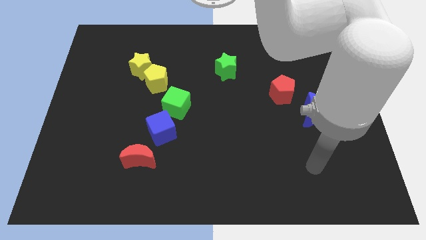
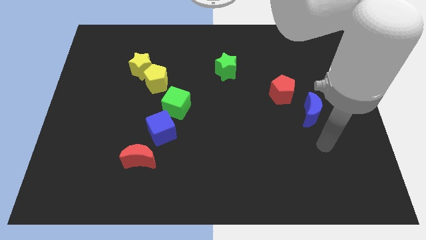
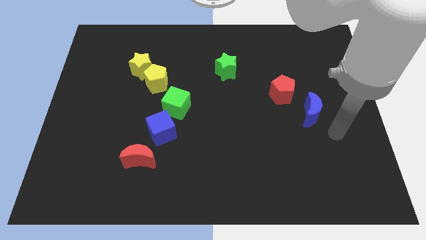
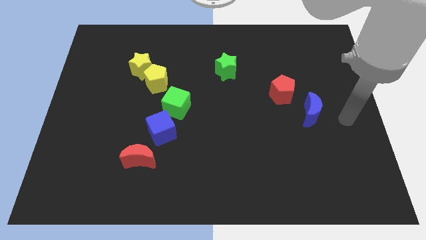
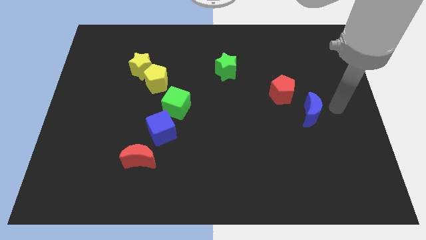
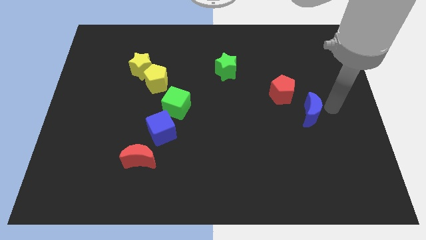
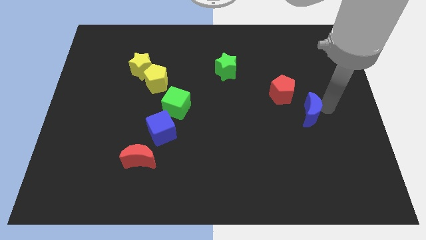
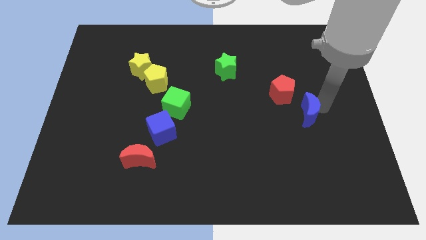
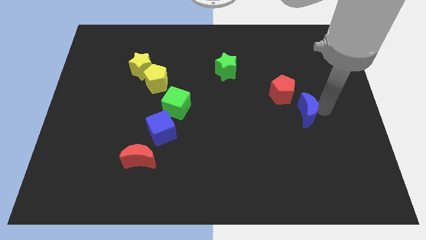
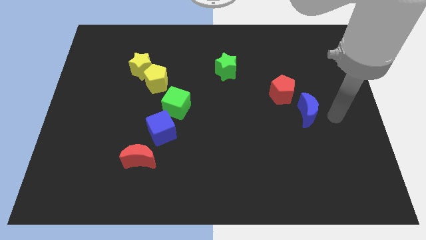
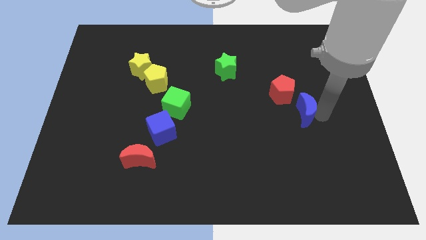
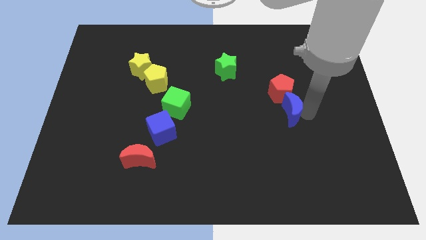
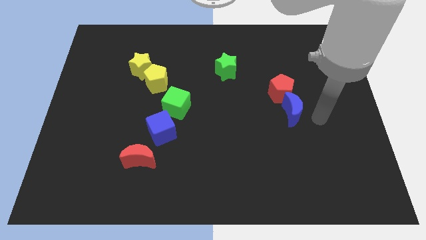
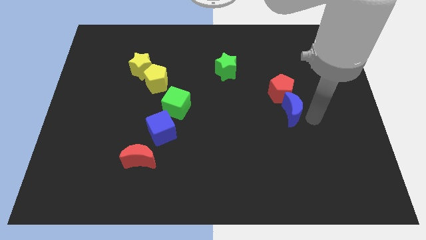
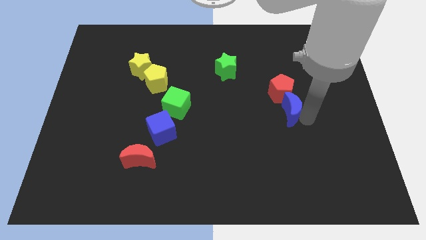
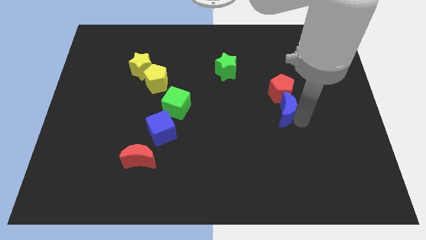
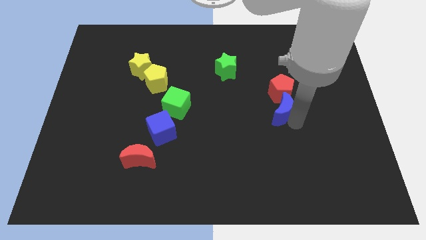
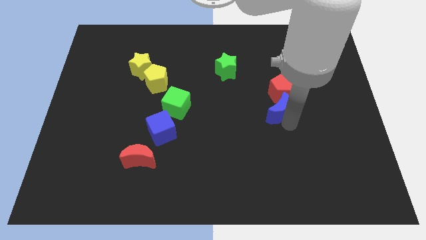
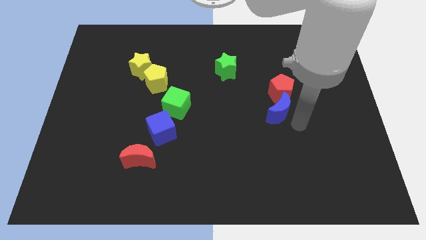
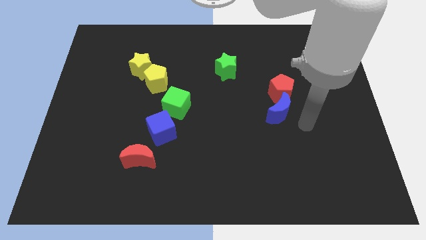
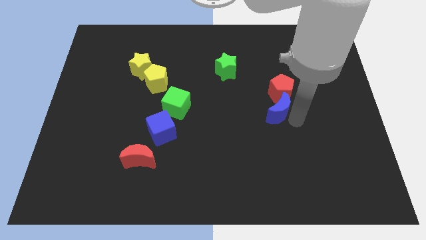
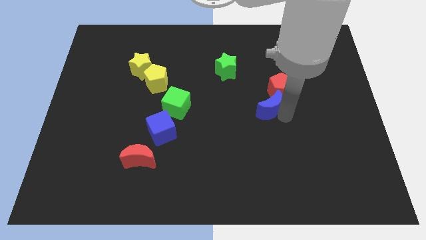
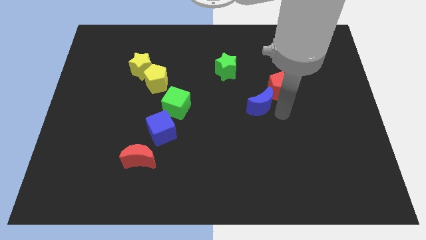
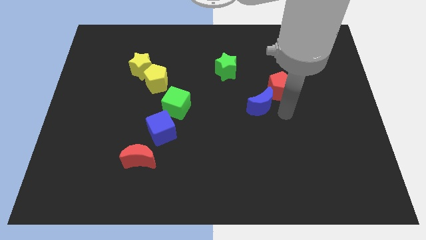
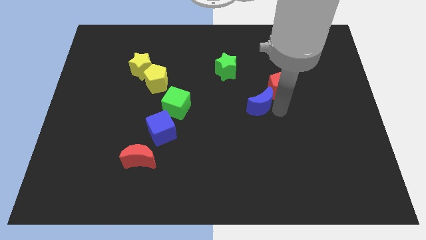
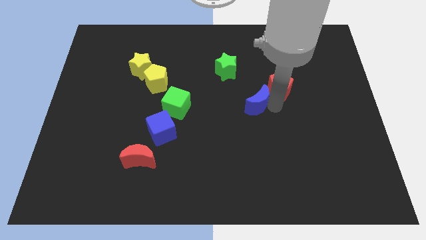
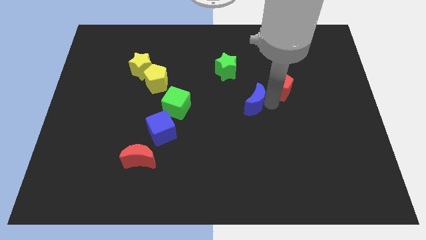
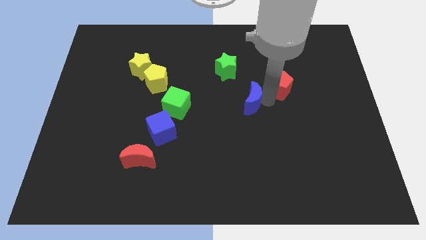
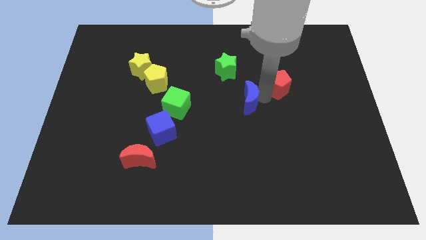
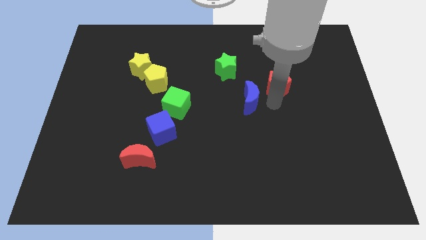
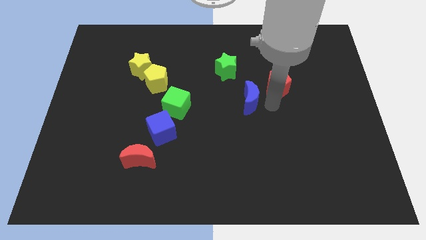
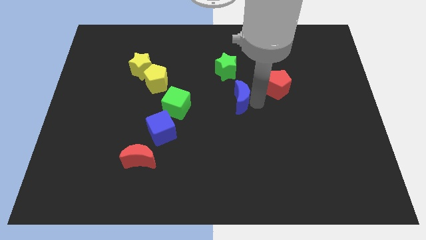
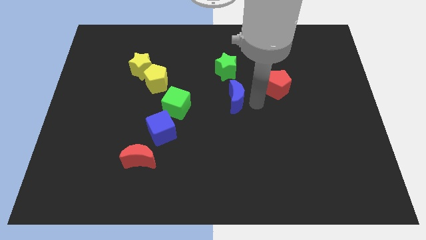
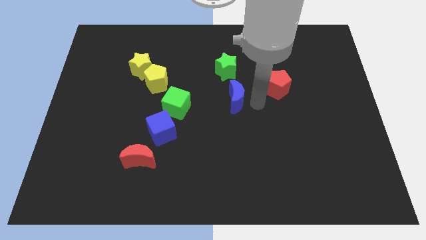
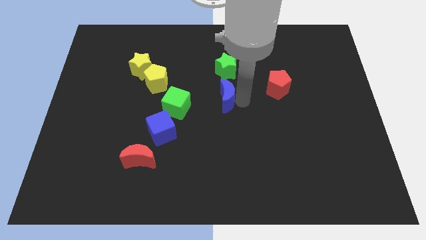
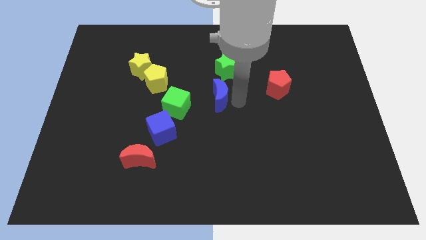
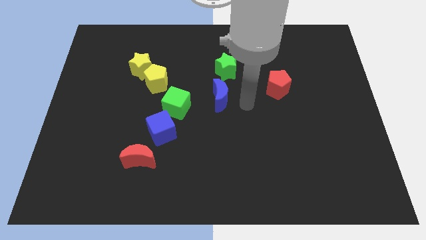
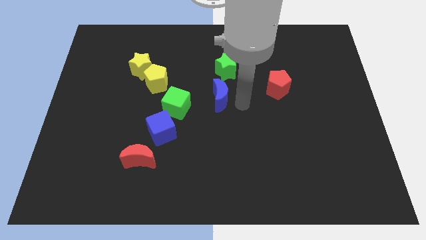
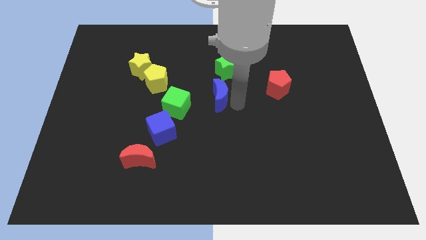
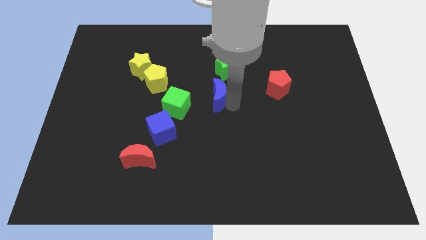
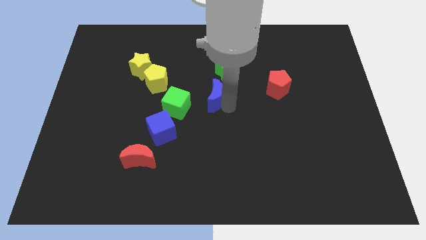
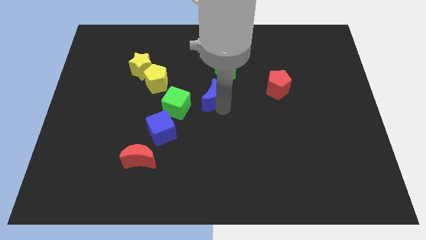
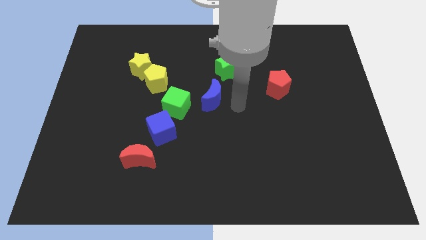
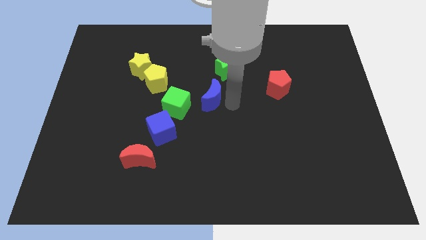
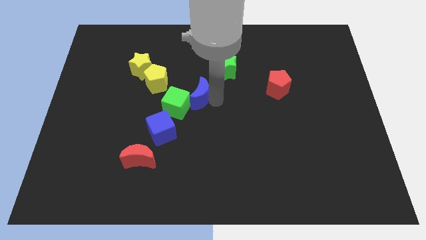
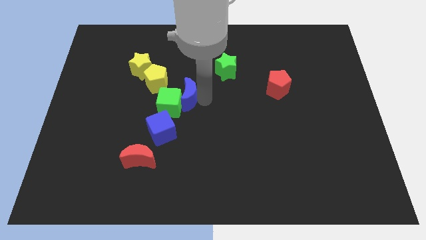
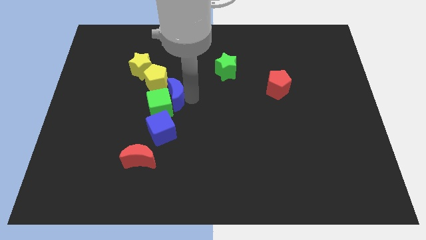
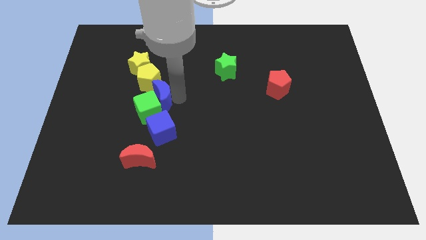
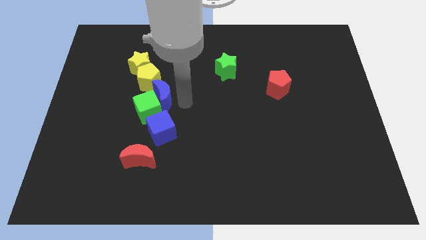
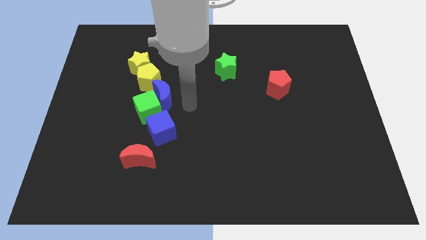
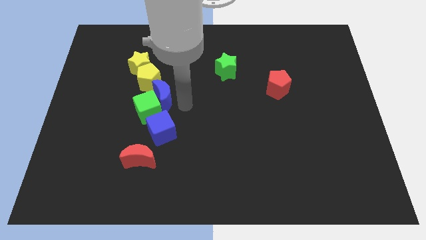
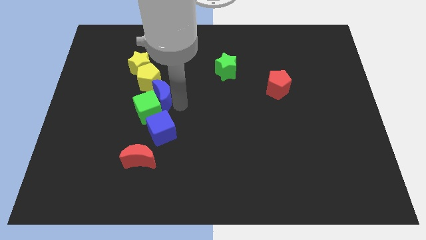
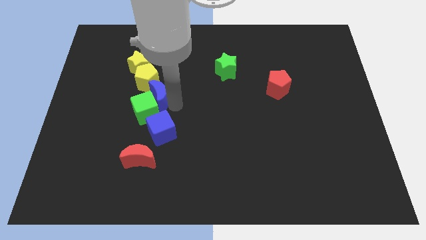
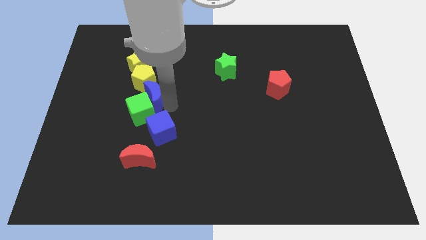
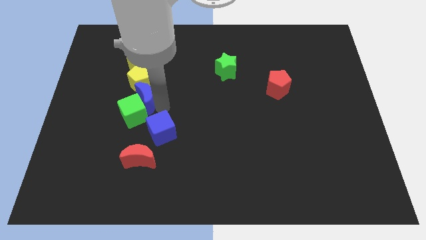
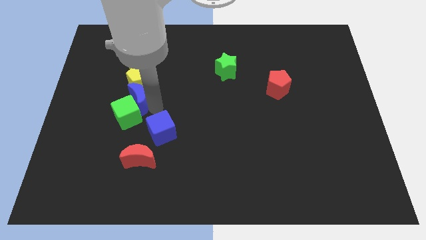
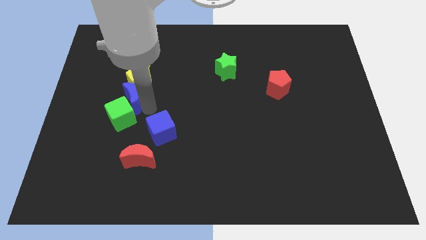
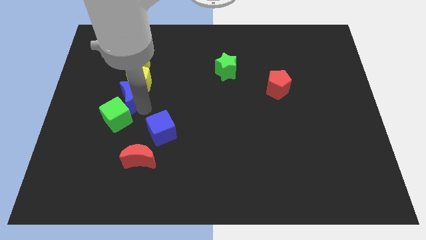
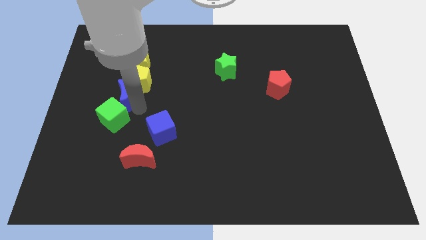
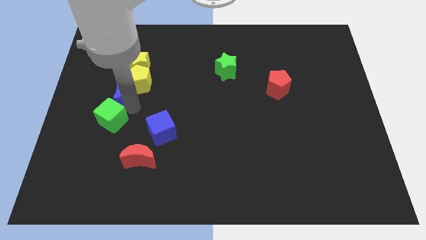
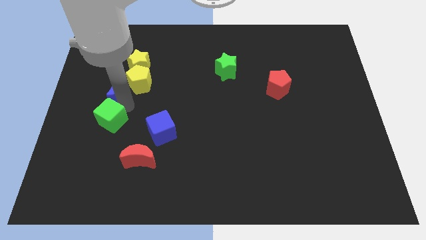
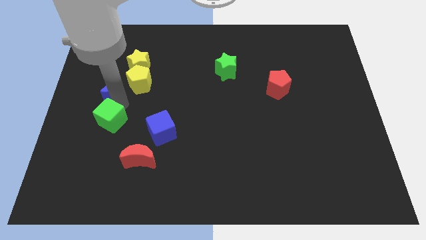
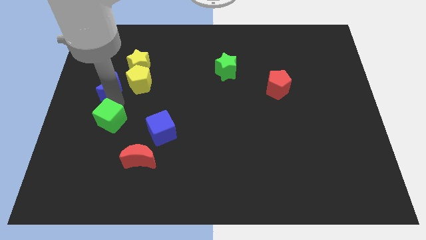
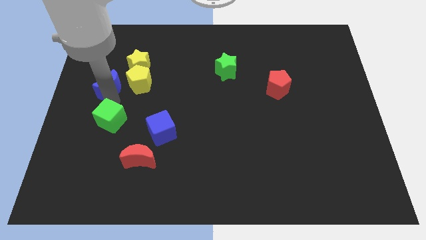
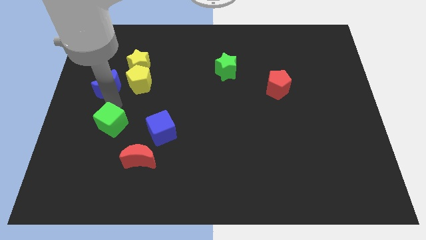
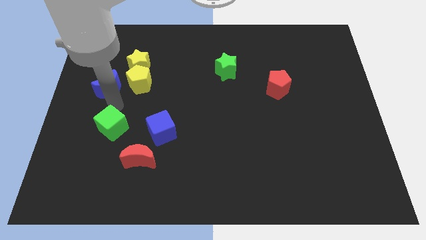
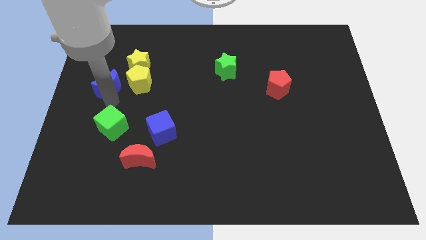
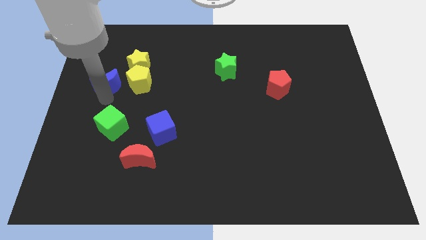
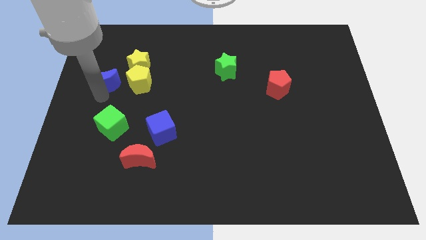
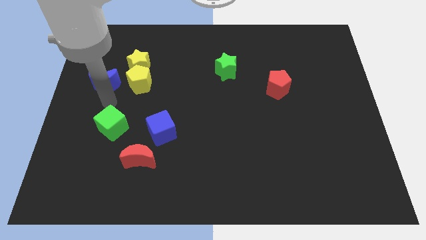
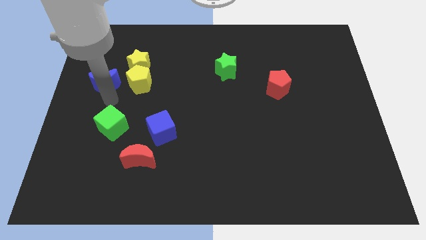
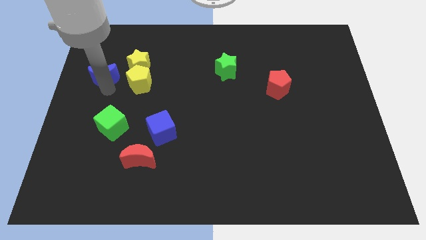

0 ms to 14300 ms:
move the blue moon to the left side of the yellow star

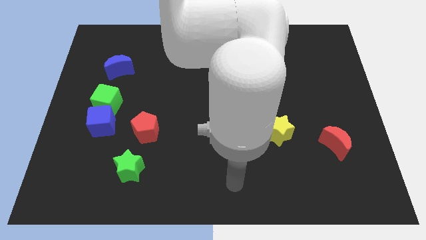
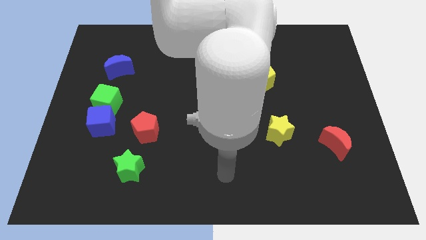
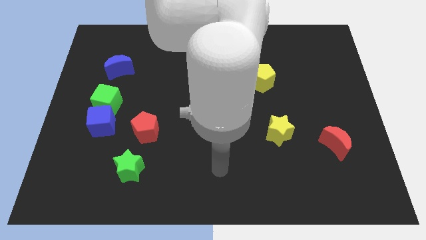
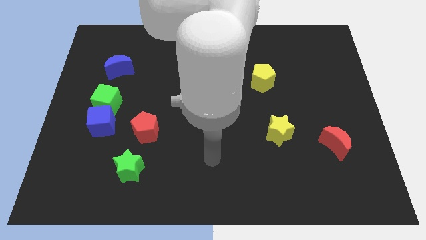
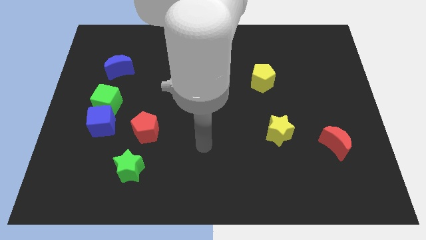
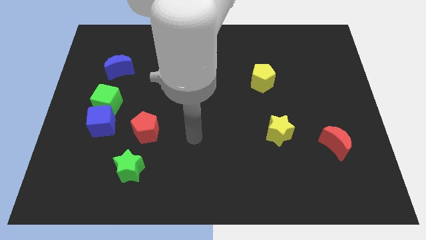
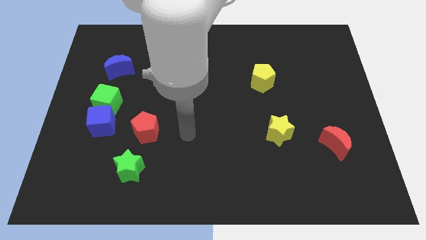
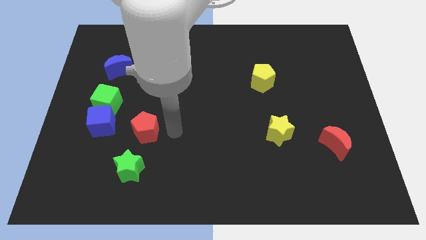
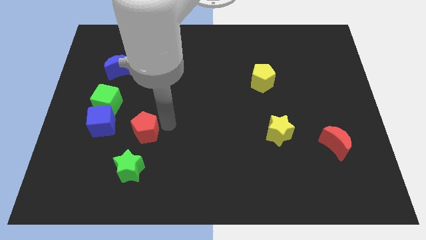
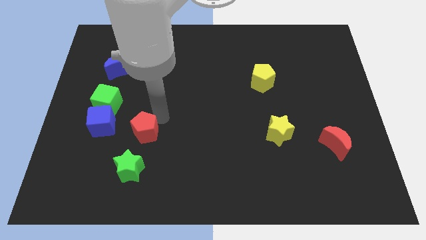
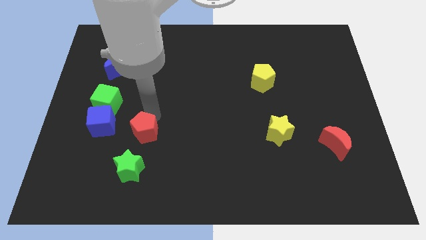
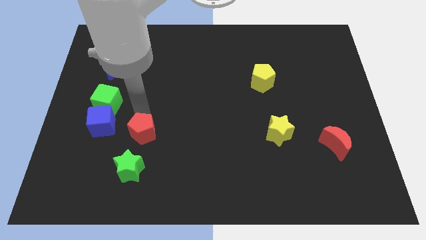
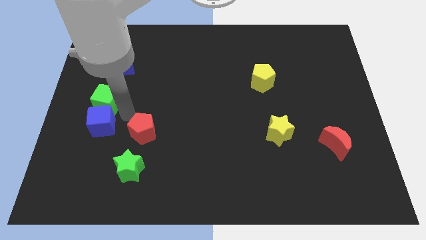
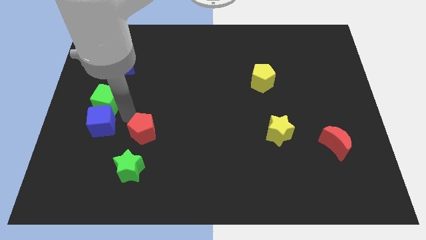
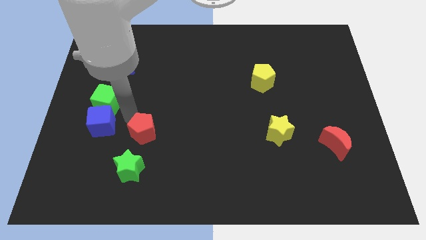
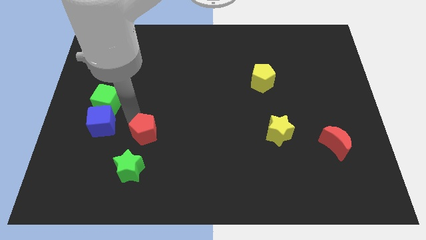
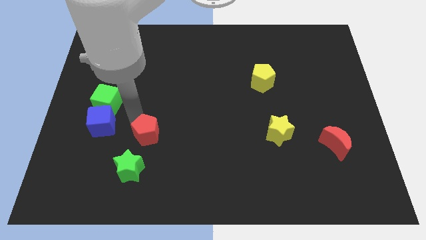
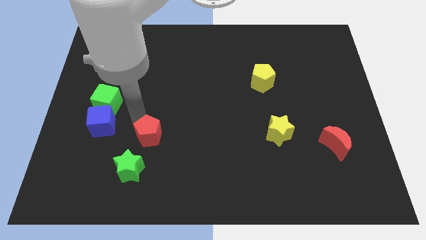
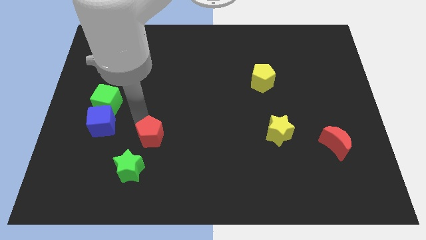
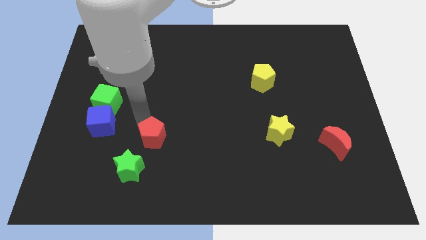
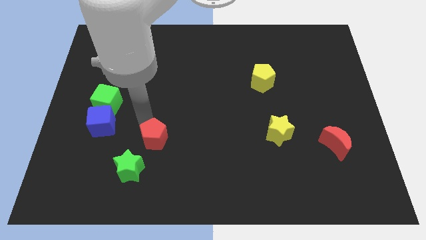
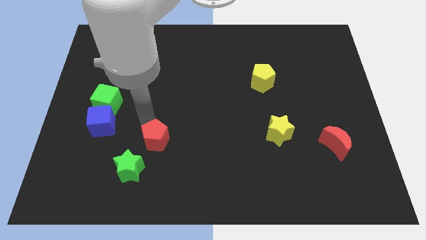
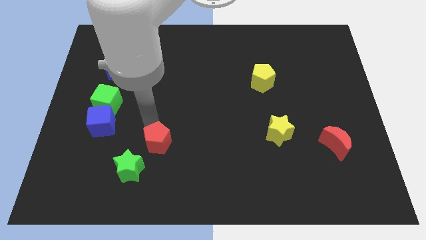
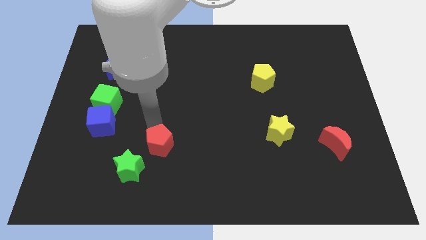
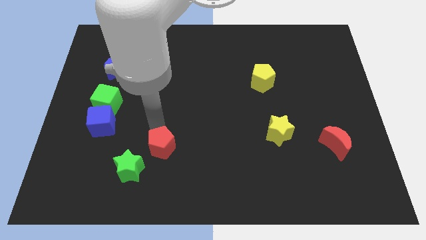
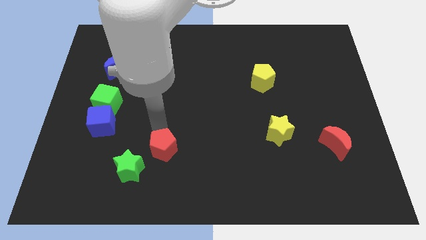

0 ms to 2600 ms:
slide the red pentagon to the right side of the green star
